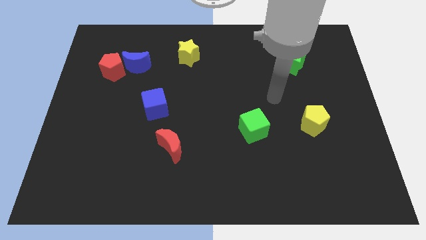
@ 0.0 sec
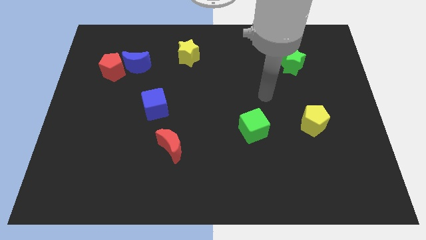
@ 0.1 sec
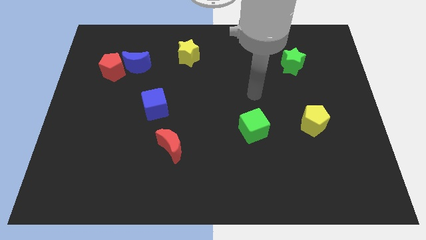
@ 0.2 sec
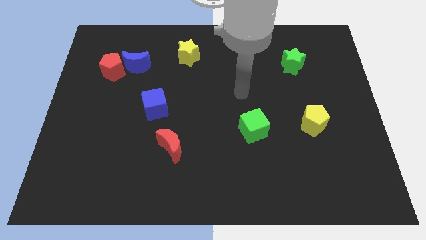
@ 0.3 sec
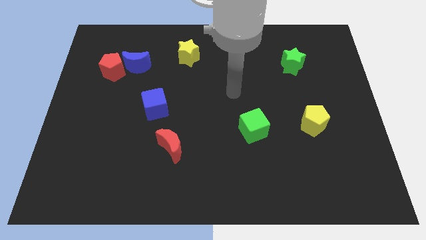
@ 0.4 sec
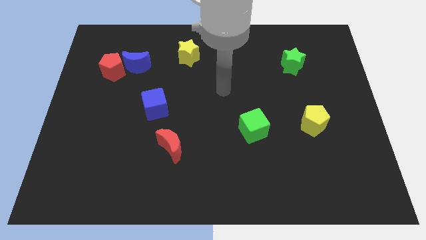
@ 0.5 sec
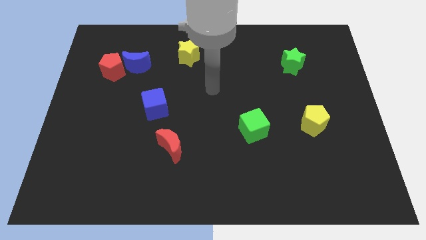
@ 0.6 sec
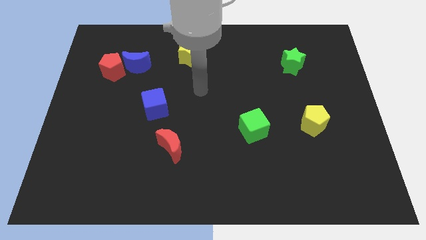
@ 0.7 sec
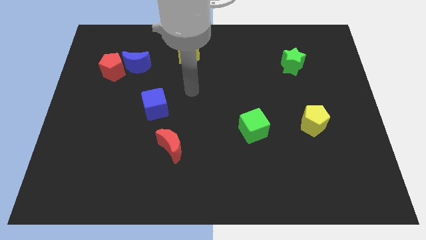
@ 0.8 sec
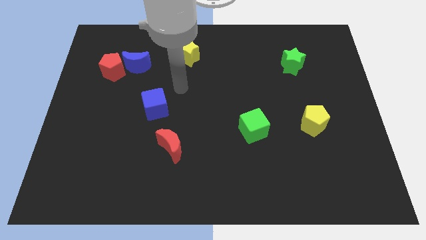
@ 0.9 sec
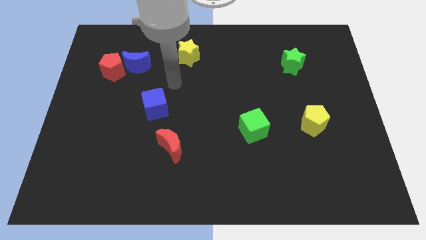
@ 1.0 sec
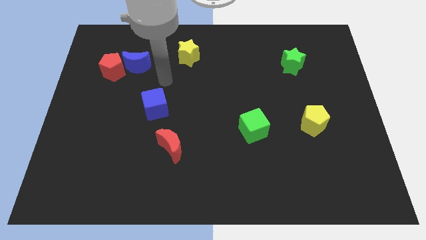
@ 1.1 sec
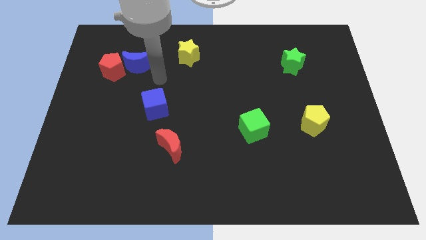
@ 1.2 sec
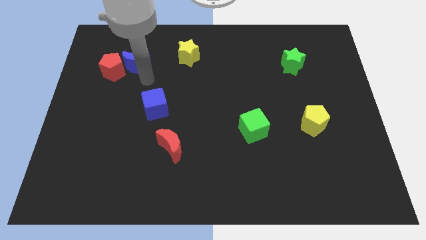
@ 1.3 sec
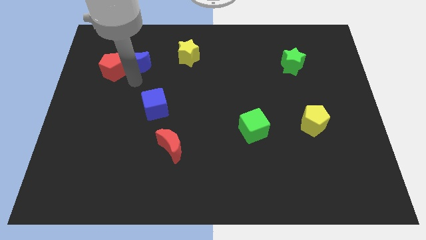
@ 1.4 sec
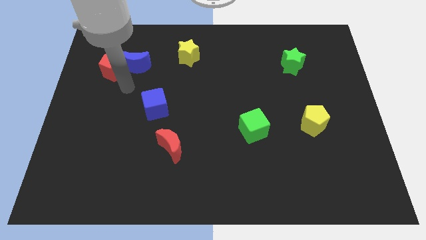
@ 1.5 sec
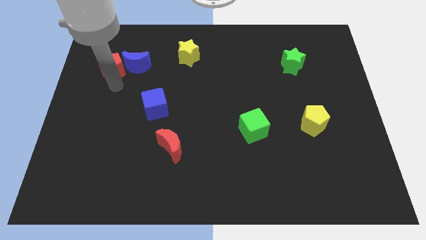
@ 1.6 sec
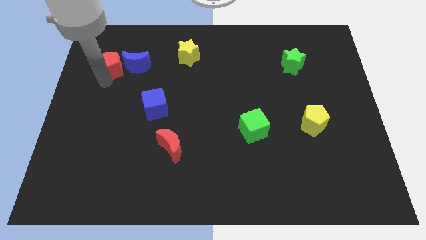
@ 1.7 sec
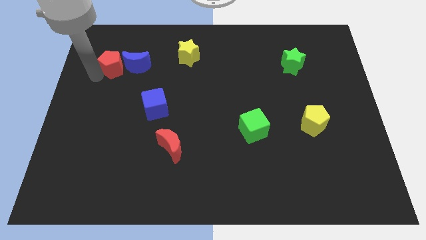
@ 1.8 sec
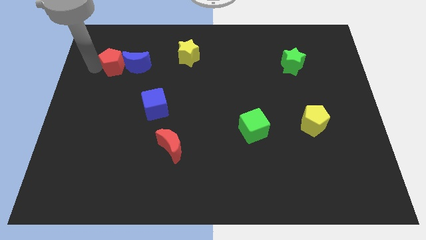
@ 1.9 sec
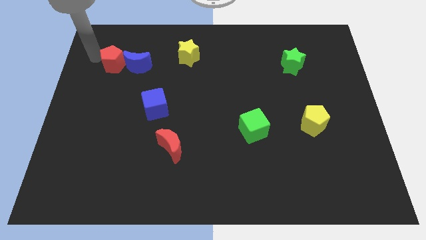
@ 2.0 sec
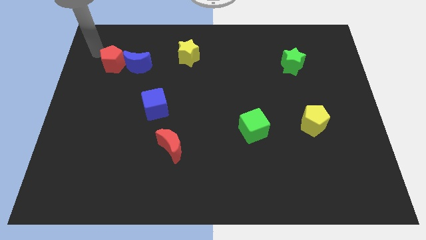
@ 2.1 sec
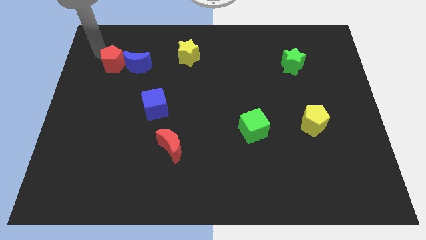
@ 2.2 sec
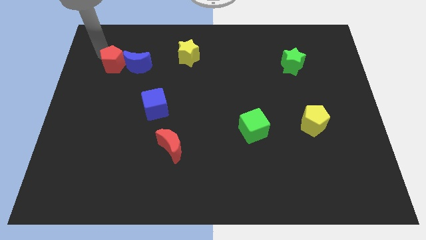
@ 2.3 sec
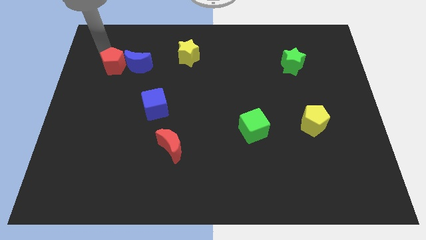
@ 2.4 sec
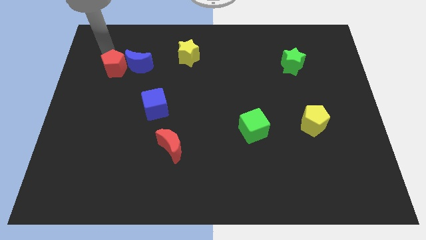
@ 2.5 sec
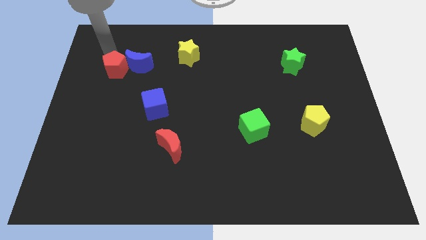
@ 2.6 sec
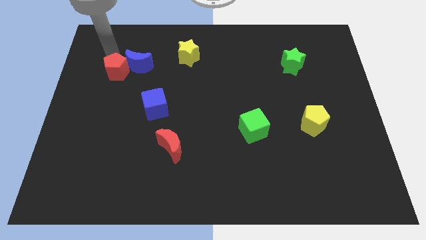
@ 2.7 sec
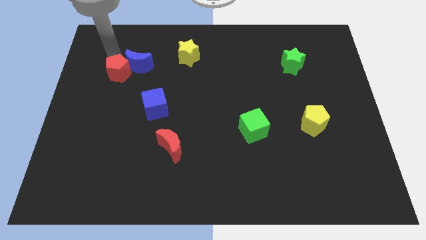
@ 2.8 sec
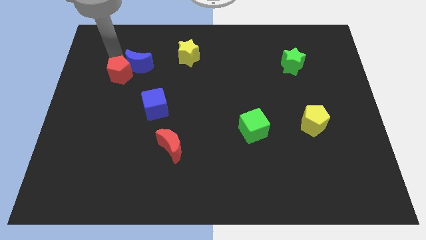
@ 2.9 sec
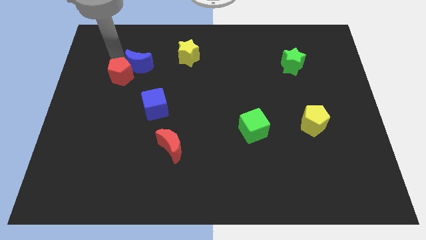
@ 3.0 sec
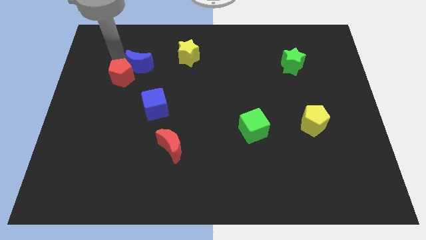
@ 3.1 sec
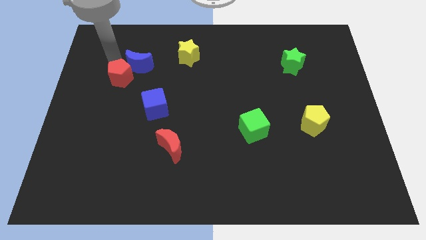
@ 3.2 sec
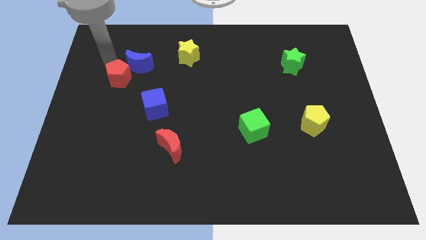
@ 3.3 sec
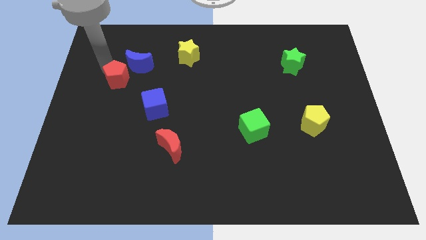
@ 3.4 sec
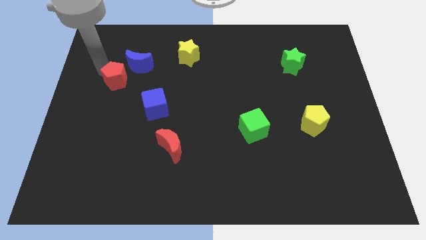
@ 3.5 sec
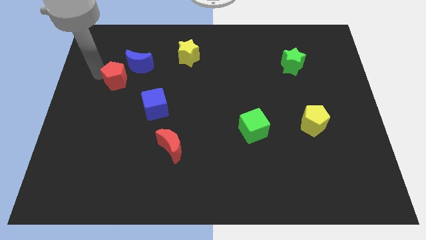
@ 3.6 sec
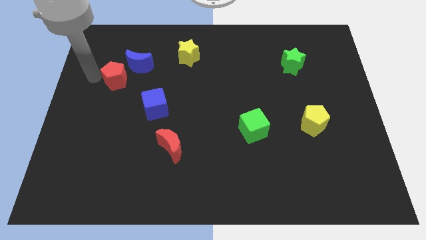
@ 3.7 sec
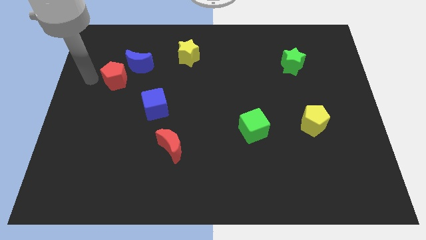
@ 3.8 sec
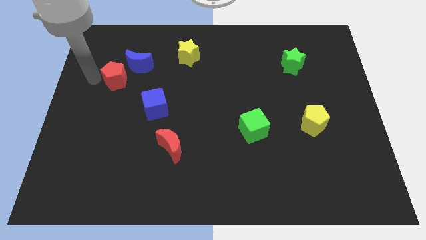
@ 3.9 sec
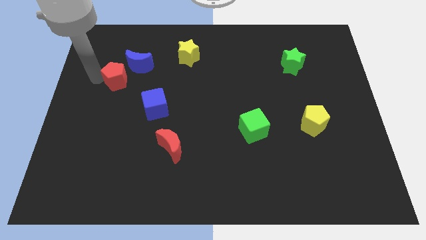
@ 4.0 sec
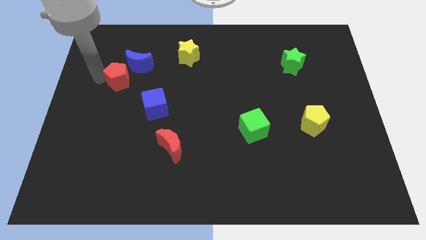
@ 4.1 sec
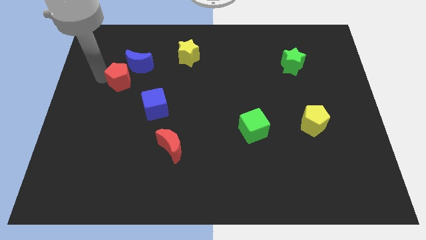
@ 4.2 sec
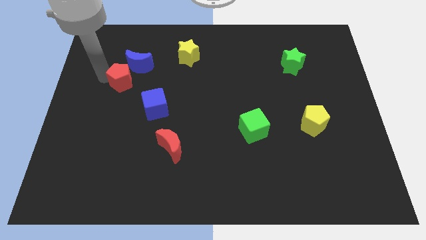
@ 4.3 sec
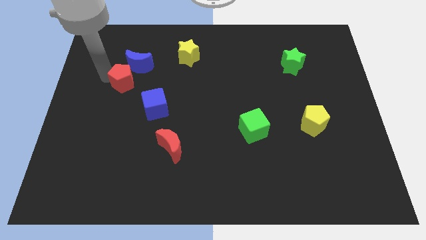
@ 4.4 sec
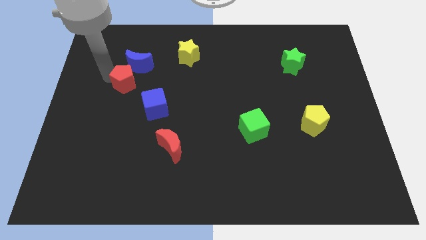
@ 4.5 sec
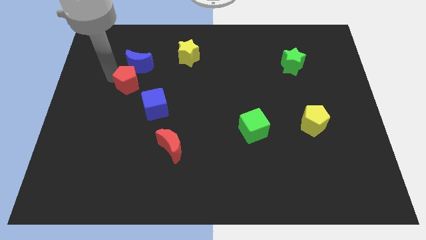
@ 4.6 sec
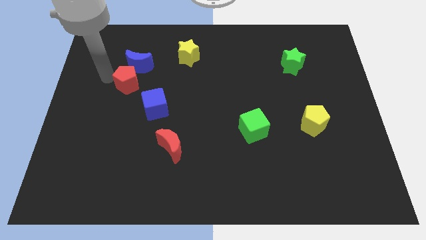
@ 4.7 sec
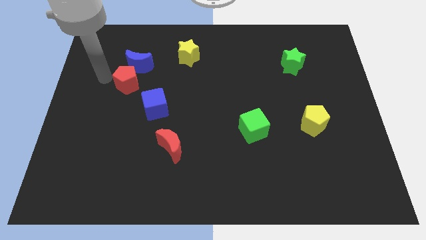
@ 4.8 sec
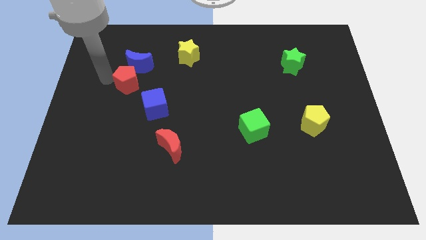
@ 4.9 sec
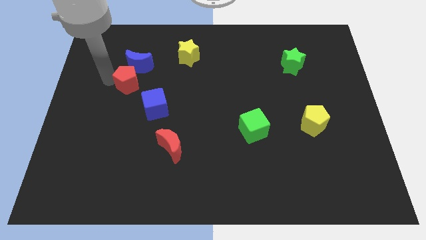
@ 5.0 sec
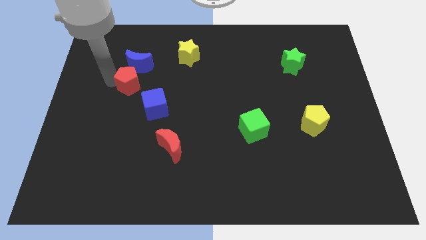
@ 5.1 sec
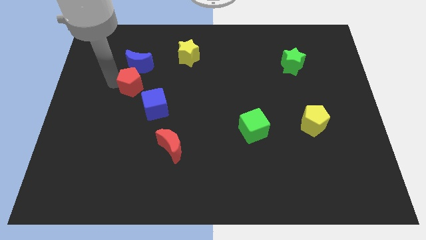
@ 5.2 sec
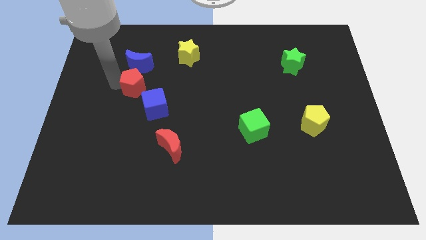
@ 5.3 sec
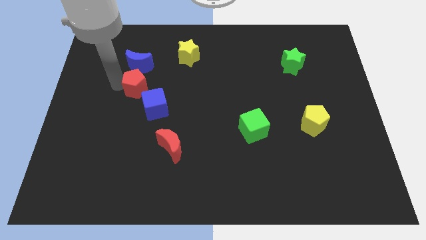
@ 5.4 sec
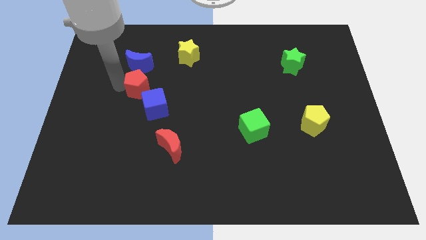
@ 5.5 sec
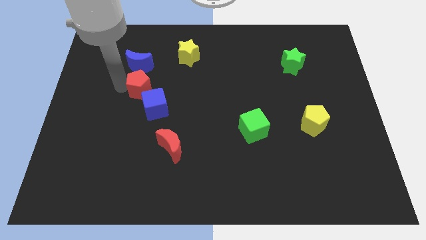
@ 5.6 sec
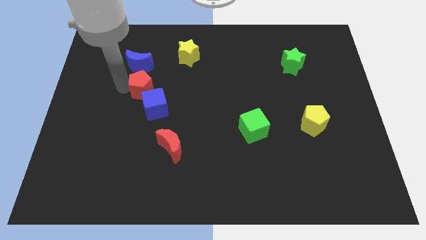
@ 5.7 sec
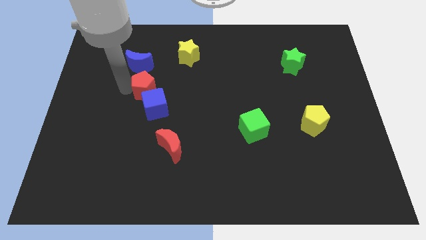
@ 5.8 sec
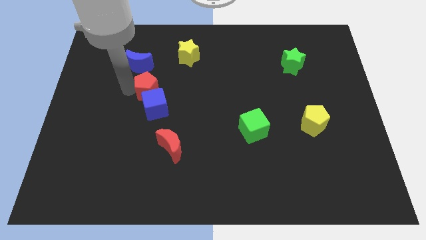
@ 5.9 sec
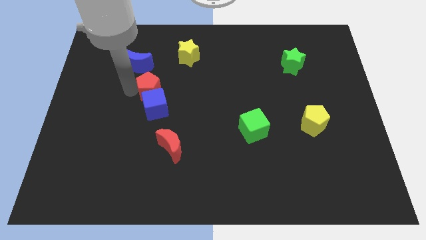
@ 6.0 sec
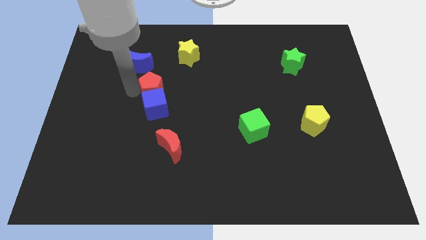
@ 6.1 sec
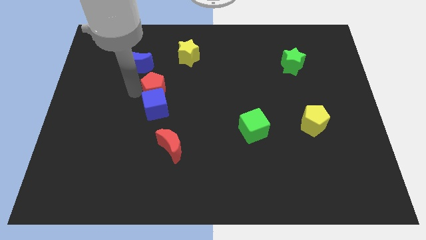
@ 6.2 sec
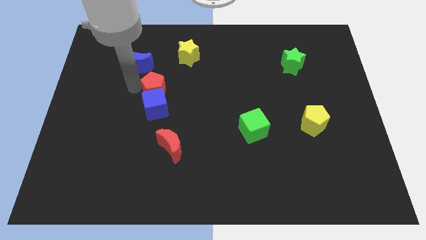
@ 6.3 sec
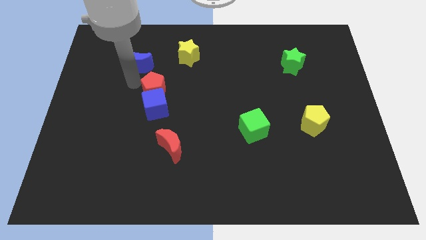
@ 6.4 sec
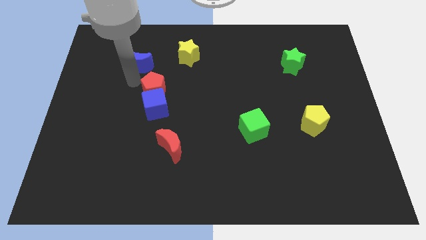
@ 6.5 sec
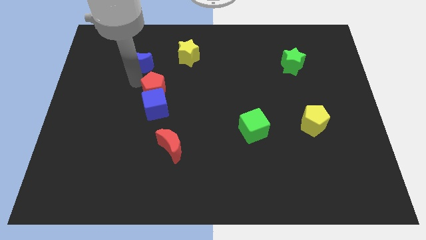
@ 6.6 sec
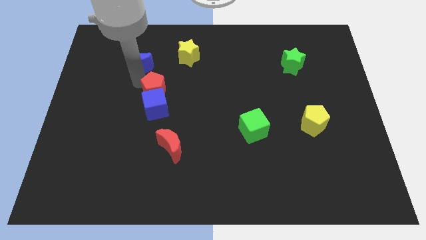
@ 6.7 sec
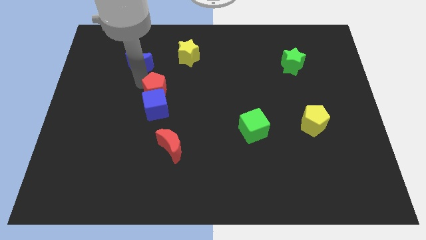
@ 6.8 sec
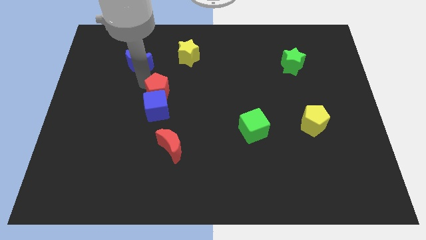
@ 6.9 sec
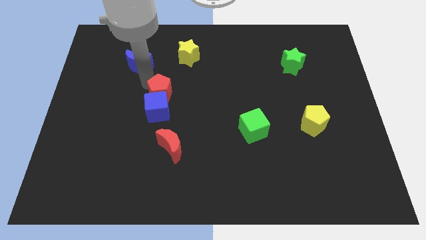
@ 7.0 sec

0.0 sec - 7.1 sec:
move the red pentagon to the center
